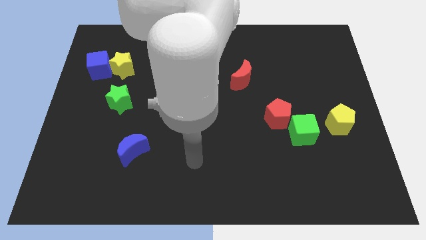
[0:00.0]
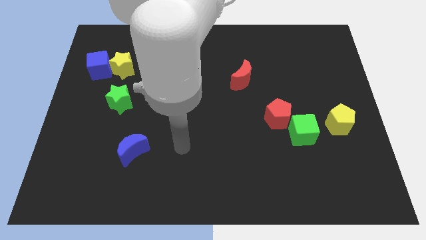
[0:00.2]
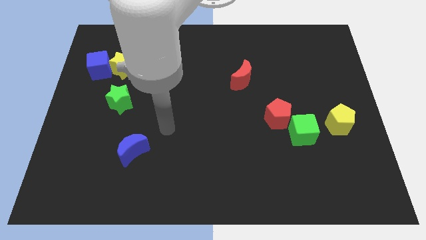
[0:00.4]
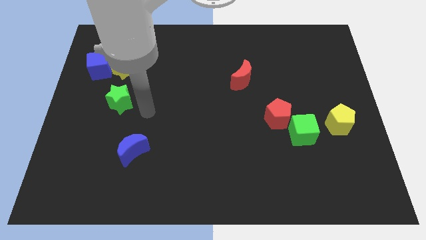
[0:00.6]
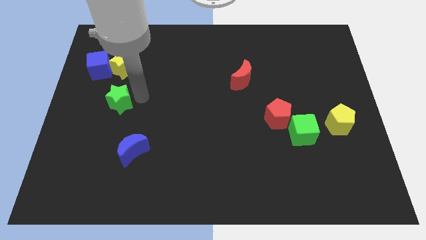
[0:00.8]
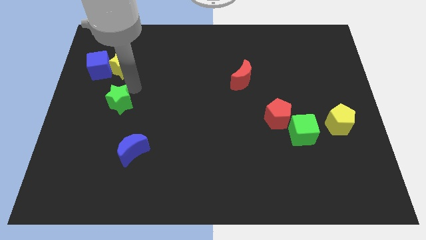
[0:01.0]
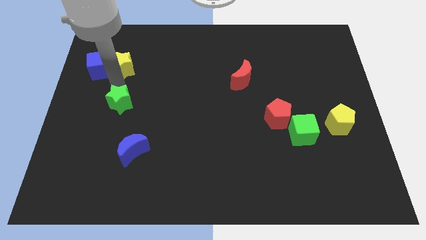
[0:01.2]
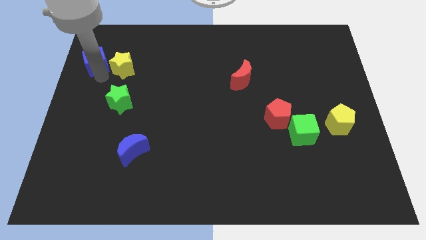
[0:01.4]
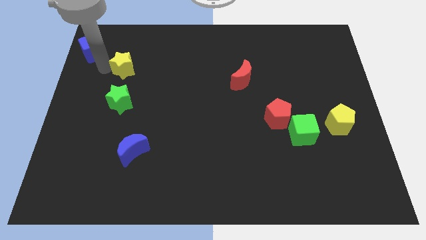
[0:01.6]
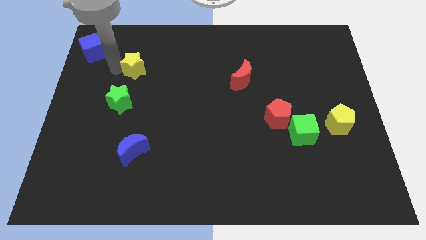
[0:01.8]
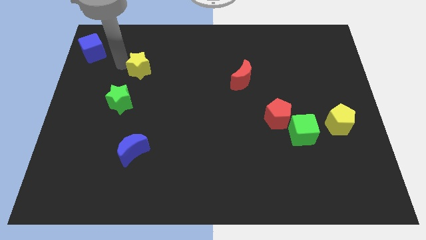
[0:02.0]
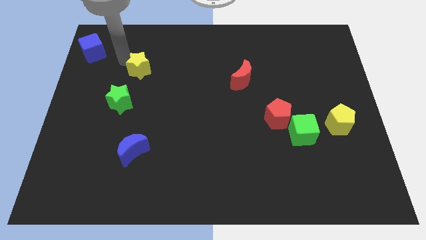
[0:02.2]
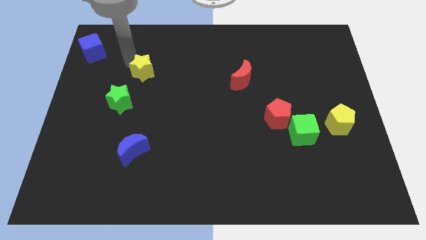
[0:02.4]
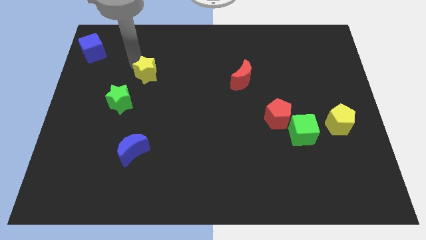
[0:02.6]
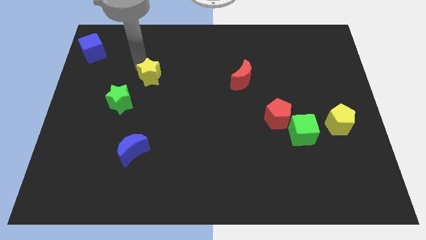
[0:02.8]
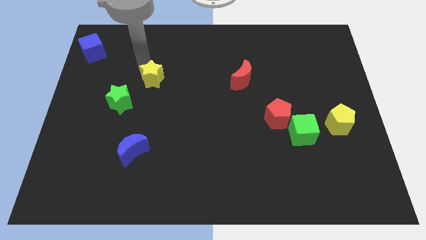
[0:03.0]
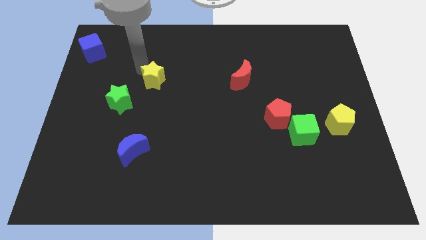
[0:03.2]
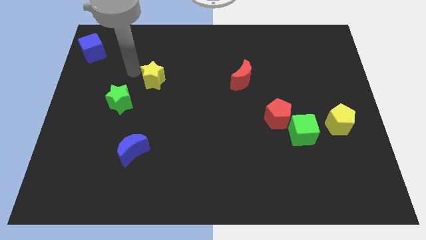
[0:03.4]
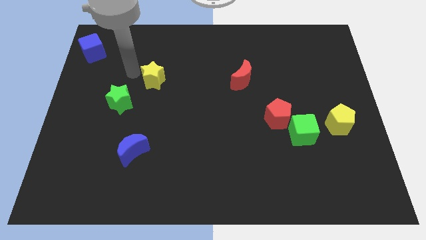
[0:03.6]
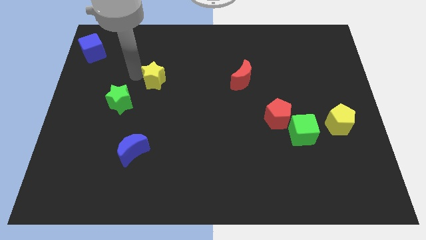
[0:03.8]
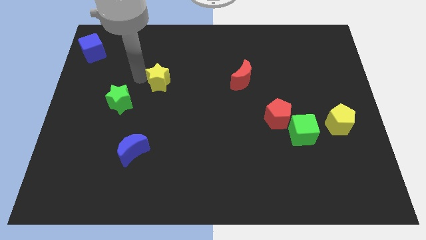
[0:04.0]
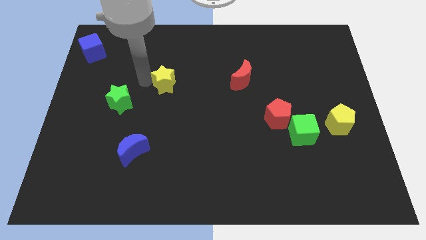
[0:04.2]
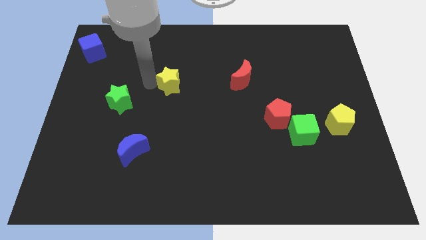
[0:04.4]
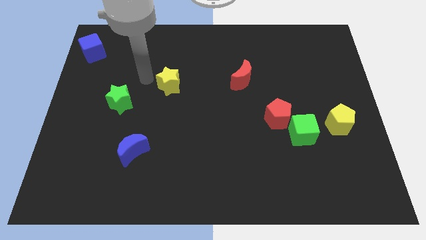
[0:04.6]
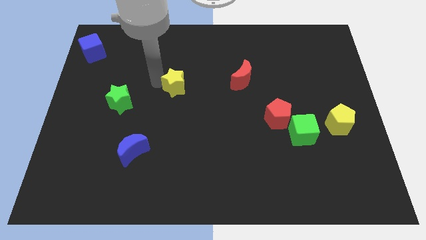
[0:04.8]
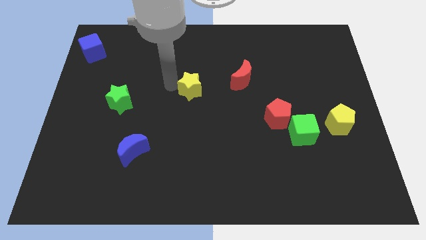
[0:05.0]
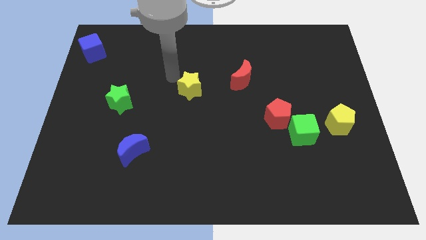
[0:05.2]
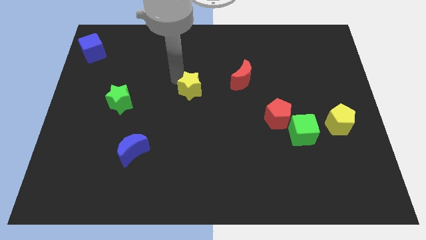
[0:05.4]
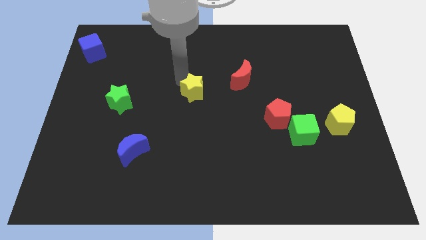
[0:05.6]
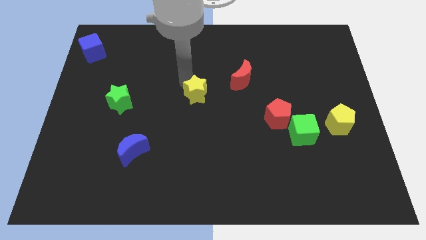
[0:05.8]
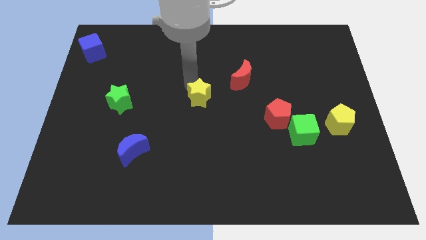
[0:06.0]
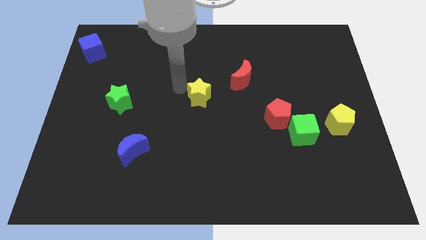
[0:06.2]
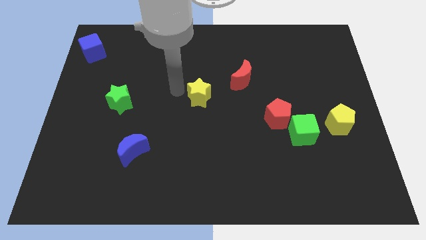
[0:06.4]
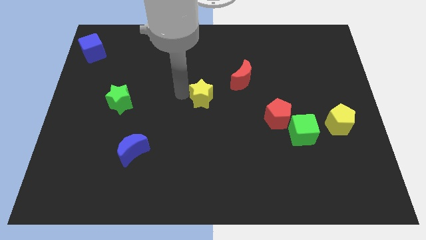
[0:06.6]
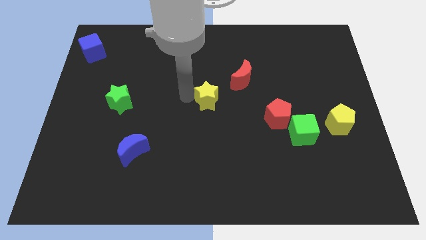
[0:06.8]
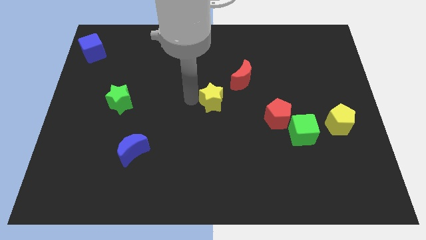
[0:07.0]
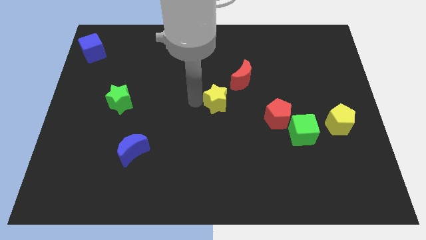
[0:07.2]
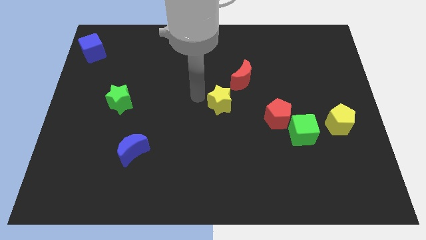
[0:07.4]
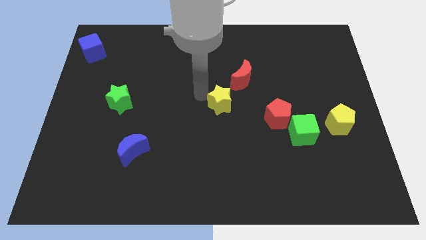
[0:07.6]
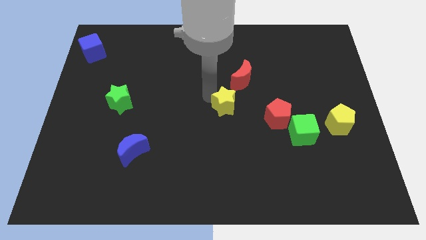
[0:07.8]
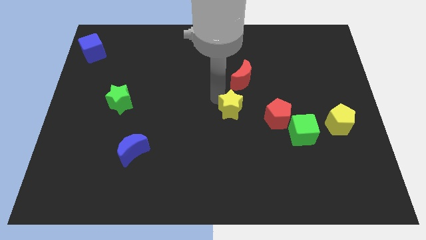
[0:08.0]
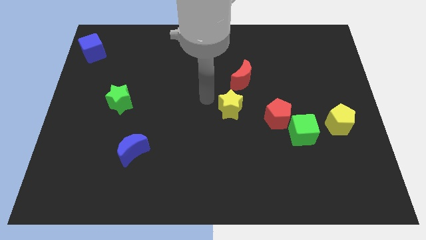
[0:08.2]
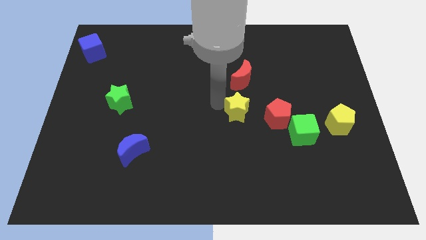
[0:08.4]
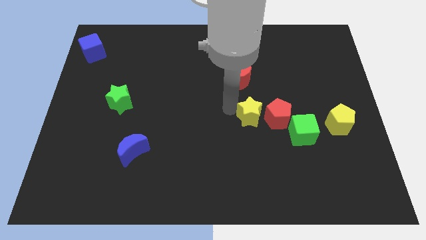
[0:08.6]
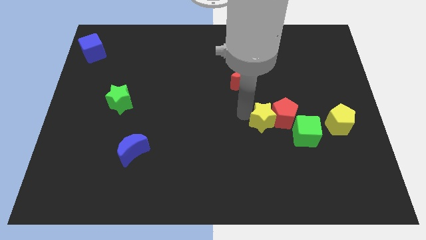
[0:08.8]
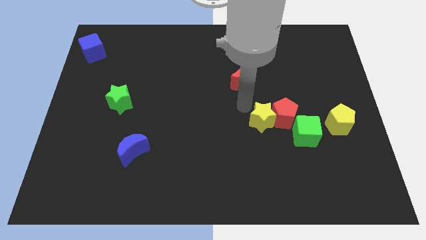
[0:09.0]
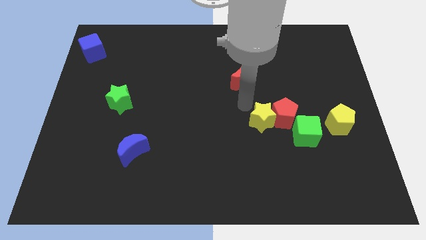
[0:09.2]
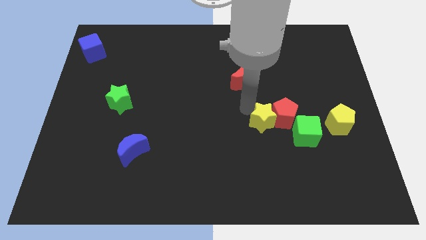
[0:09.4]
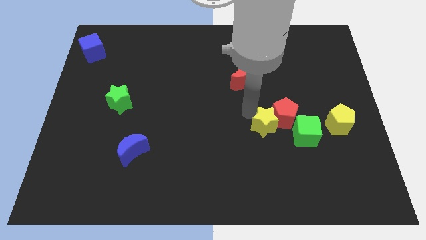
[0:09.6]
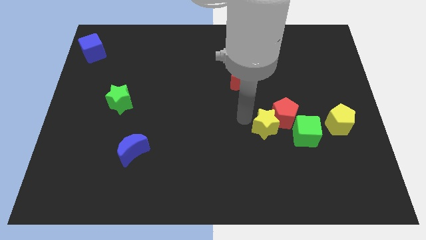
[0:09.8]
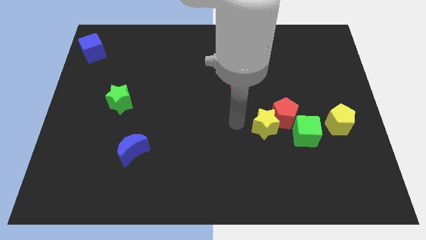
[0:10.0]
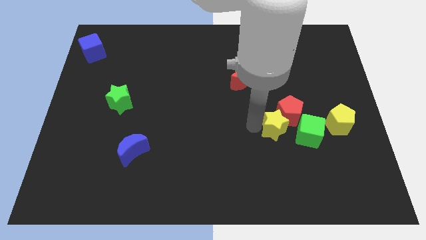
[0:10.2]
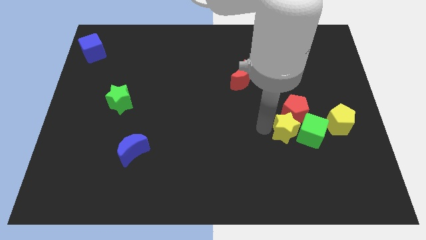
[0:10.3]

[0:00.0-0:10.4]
move the yellow star next to the green cube

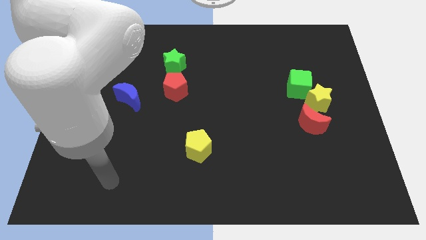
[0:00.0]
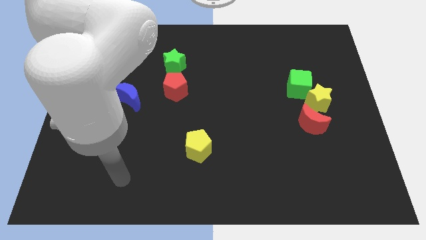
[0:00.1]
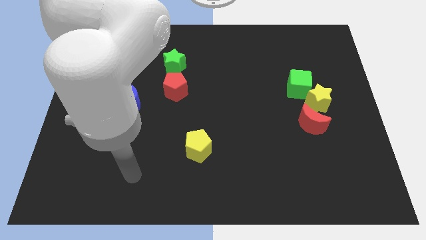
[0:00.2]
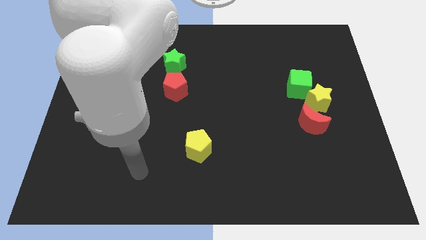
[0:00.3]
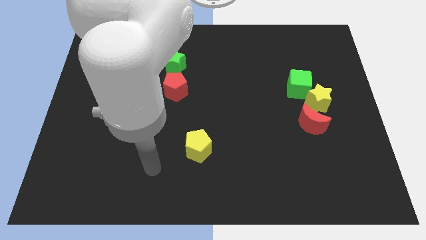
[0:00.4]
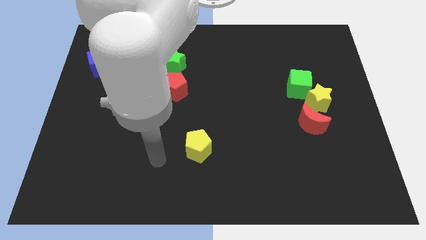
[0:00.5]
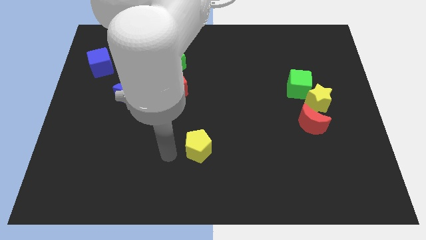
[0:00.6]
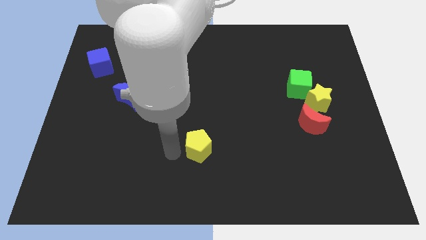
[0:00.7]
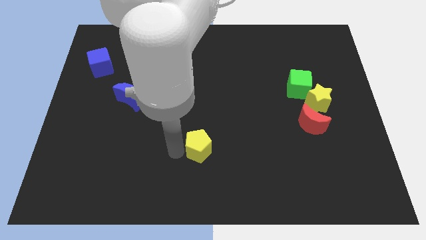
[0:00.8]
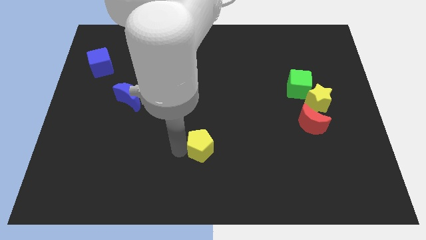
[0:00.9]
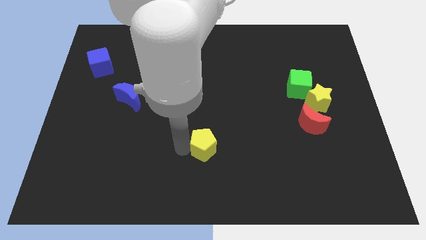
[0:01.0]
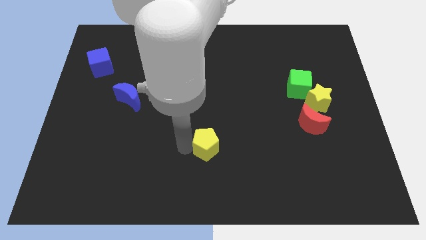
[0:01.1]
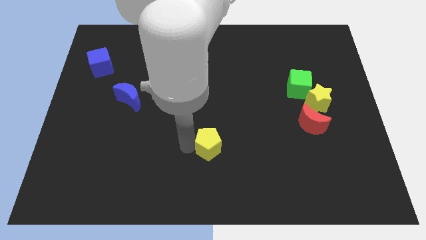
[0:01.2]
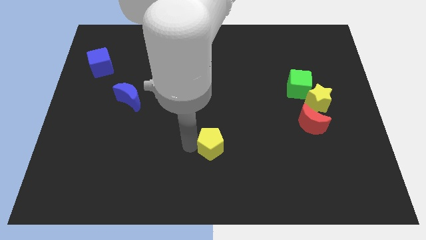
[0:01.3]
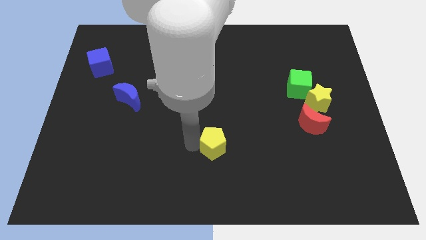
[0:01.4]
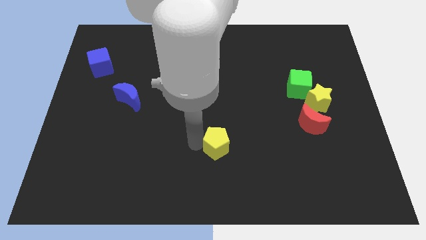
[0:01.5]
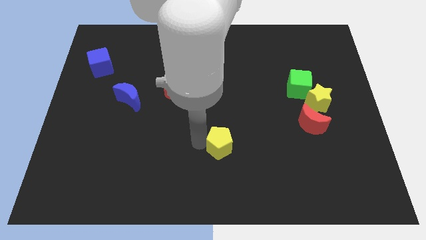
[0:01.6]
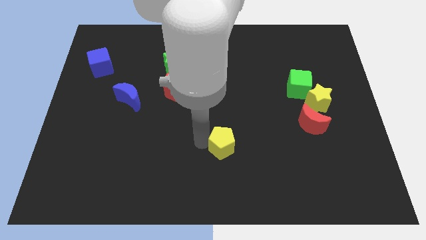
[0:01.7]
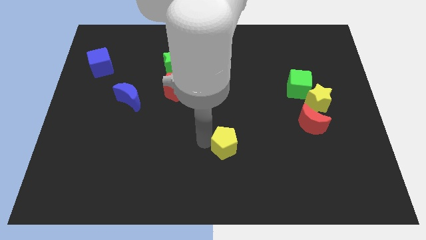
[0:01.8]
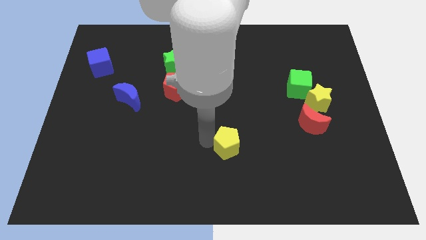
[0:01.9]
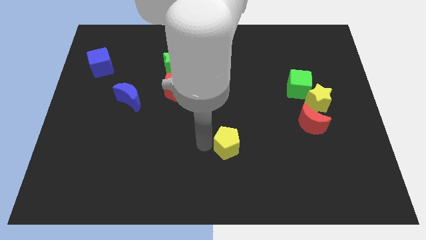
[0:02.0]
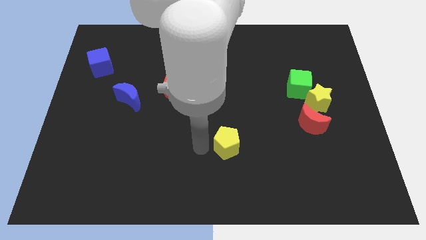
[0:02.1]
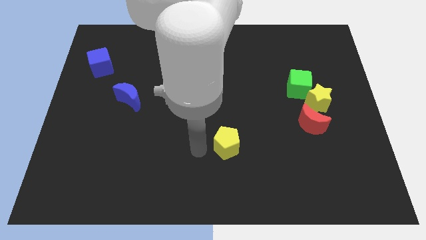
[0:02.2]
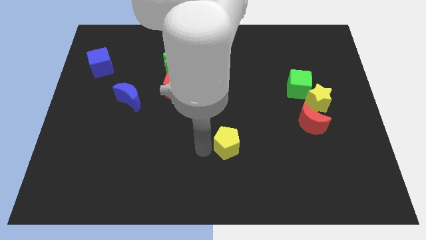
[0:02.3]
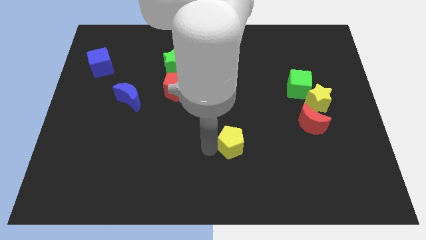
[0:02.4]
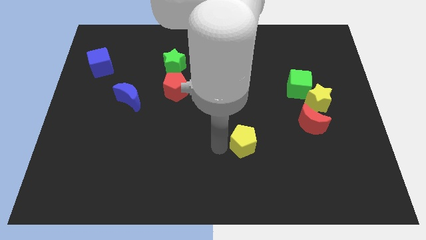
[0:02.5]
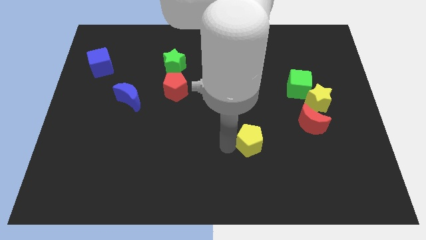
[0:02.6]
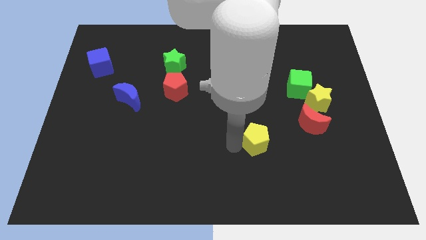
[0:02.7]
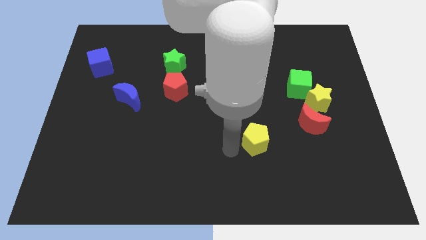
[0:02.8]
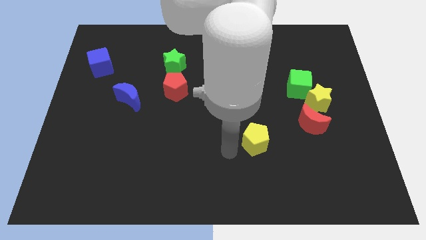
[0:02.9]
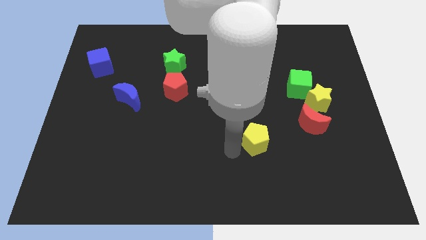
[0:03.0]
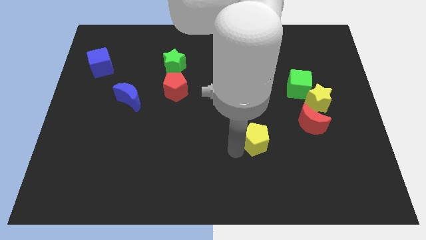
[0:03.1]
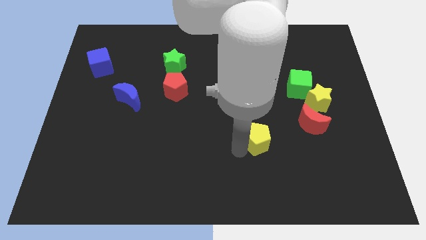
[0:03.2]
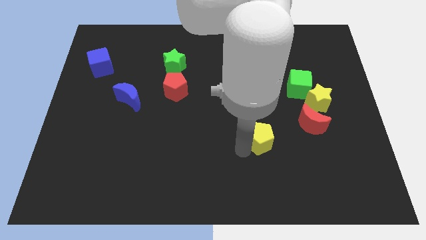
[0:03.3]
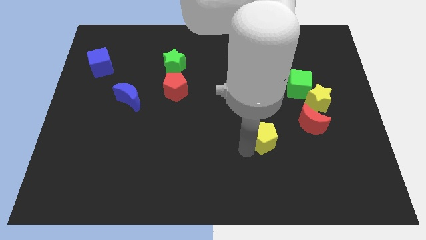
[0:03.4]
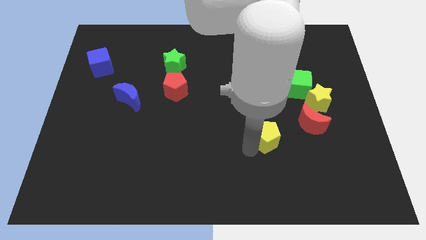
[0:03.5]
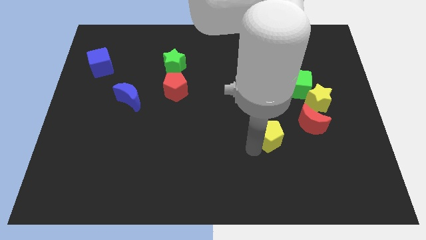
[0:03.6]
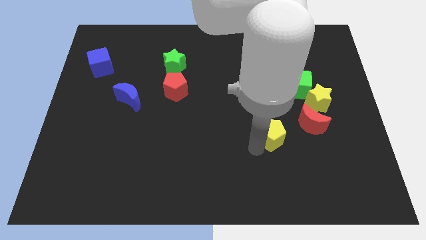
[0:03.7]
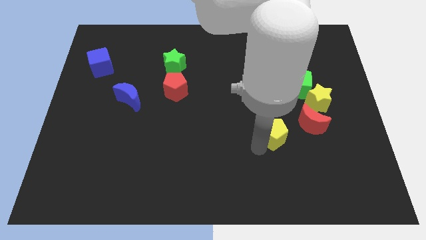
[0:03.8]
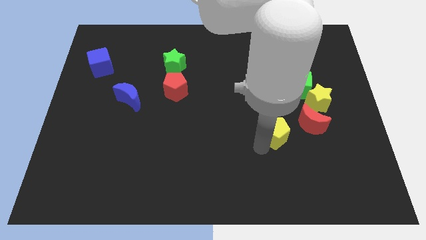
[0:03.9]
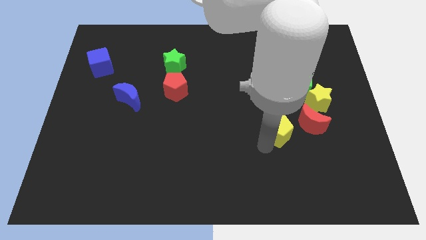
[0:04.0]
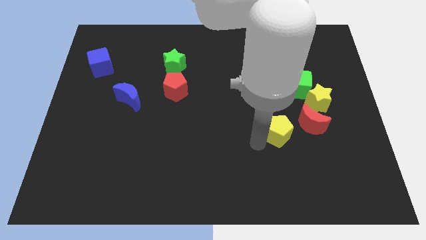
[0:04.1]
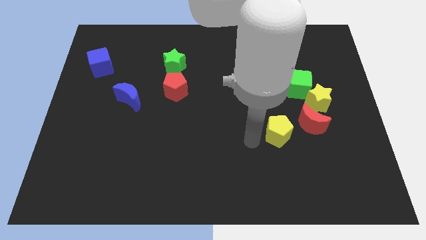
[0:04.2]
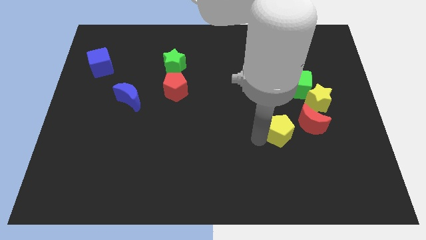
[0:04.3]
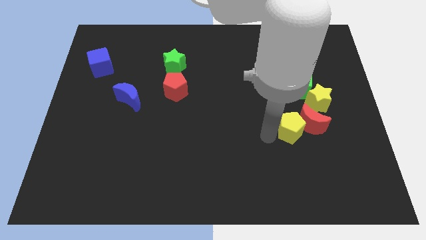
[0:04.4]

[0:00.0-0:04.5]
move the yellow pentagon next to the red moon
